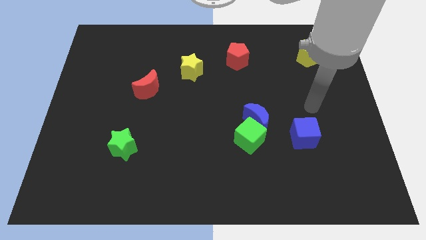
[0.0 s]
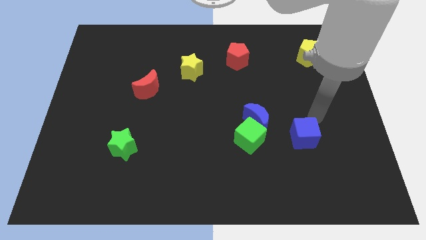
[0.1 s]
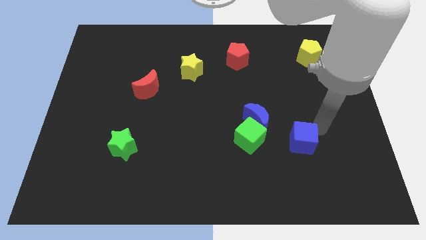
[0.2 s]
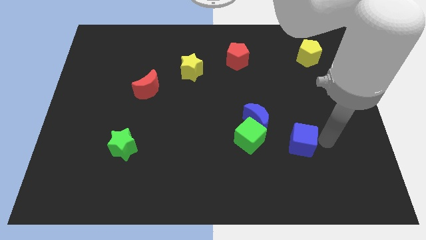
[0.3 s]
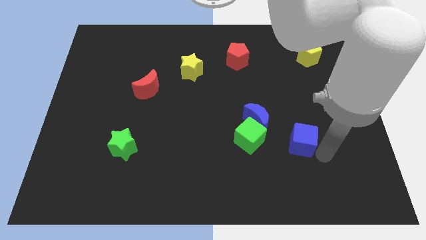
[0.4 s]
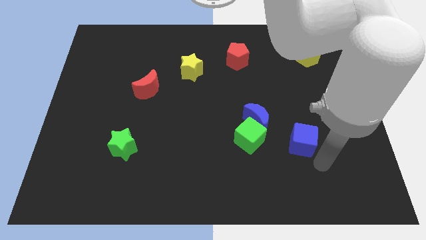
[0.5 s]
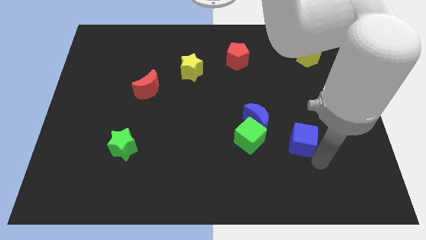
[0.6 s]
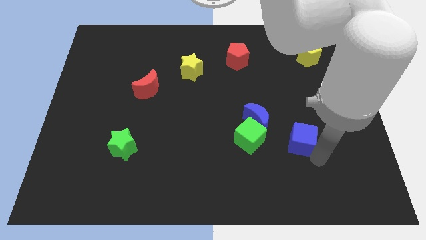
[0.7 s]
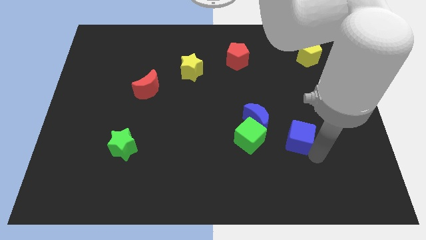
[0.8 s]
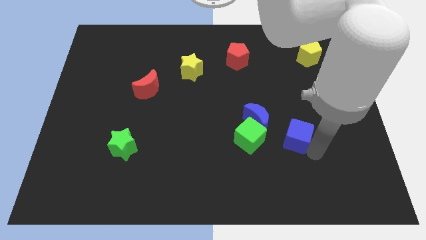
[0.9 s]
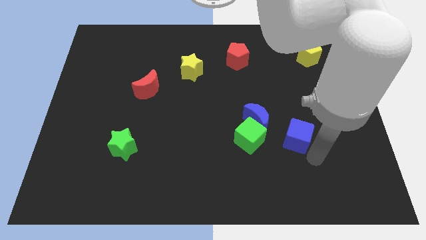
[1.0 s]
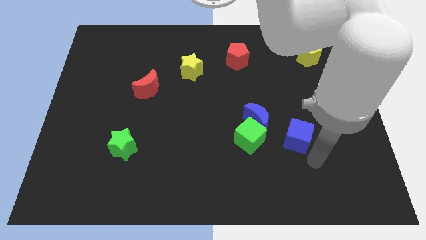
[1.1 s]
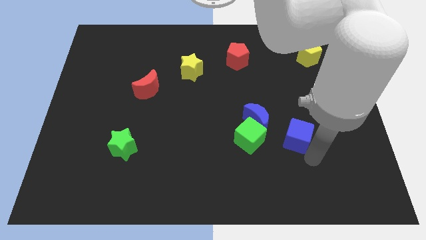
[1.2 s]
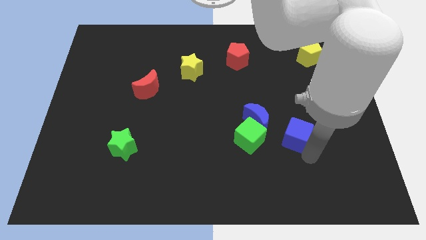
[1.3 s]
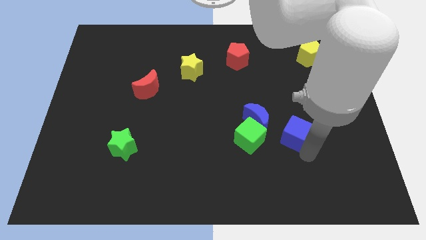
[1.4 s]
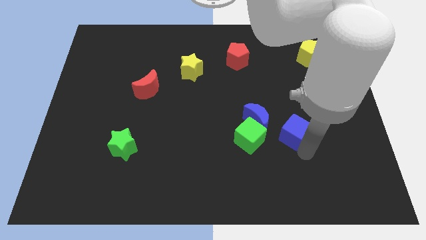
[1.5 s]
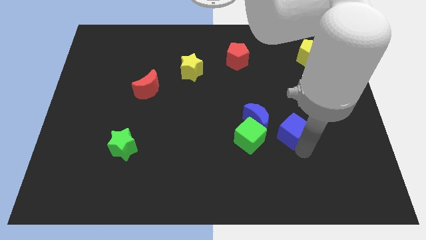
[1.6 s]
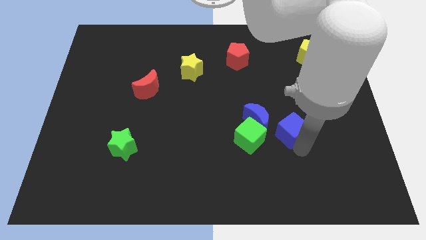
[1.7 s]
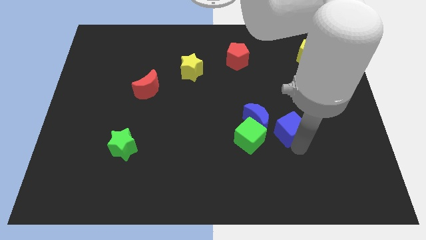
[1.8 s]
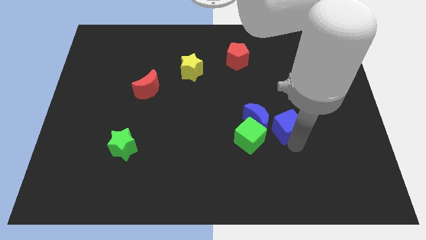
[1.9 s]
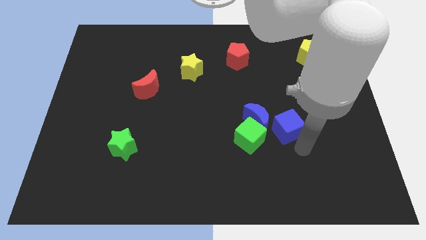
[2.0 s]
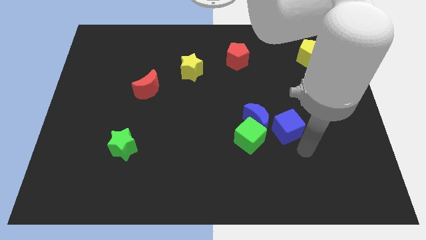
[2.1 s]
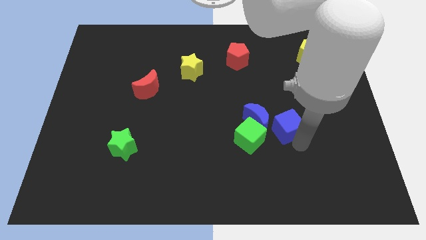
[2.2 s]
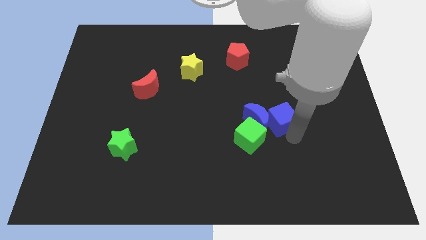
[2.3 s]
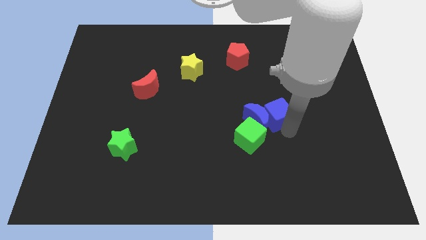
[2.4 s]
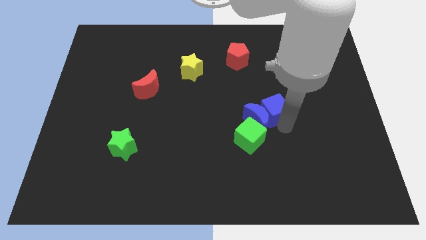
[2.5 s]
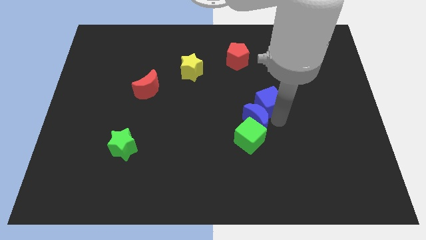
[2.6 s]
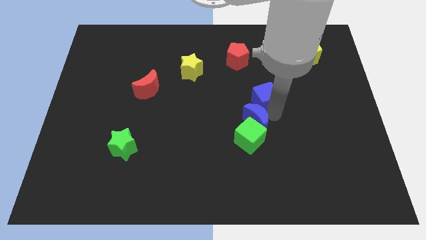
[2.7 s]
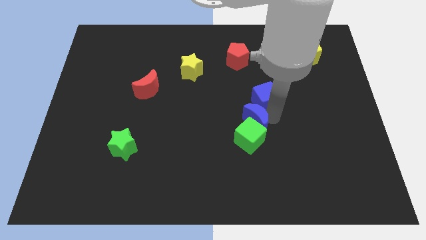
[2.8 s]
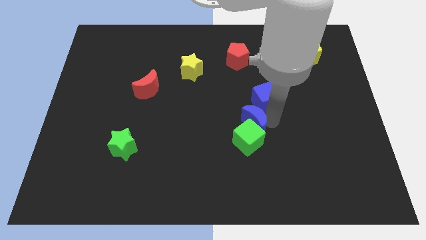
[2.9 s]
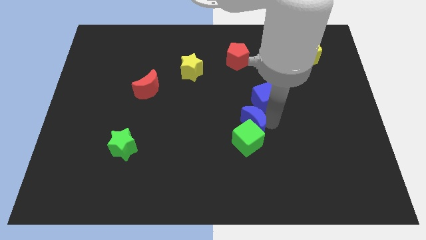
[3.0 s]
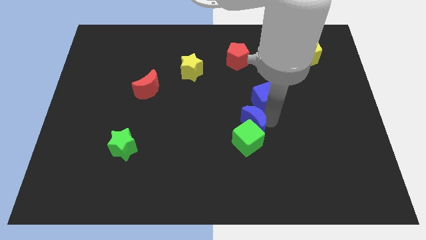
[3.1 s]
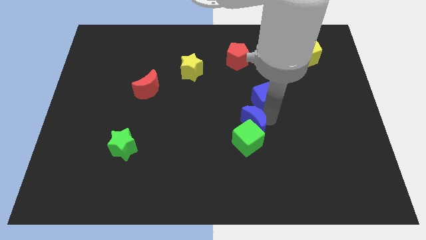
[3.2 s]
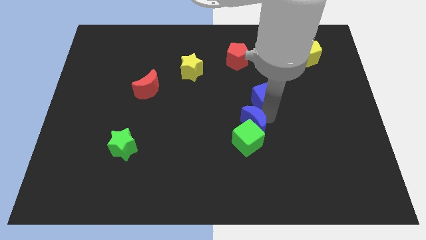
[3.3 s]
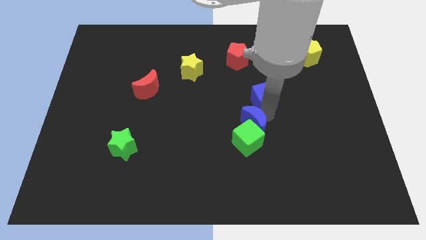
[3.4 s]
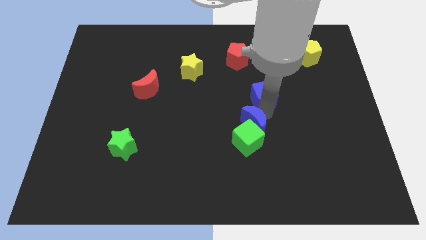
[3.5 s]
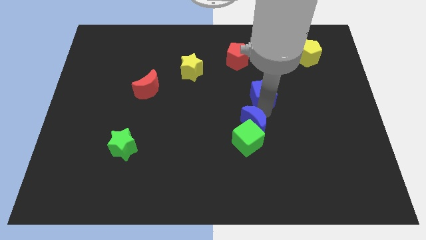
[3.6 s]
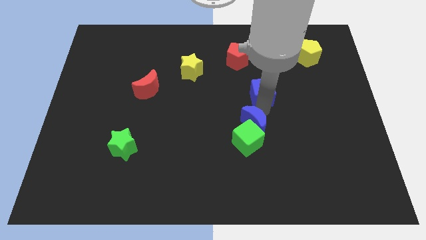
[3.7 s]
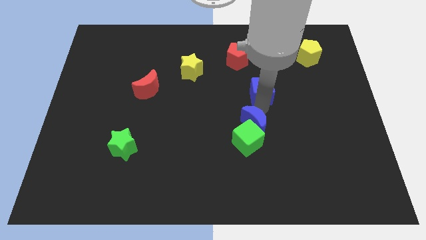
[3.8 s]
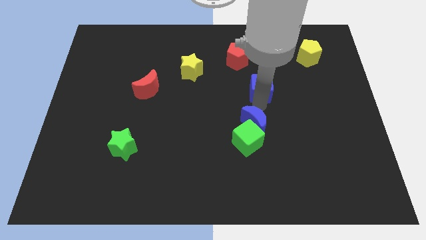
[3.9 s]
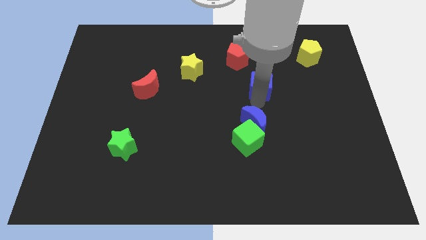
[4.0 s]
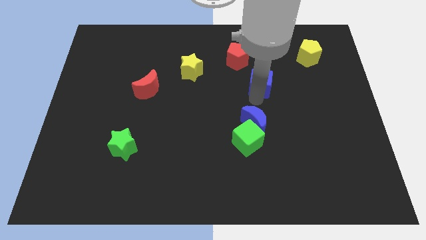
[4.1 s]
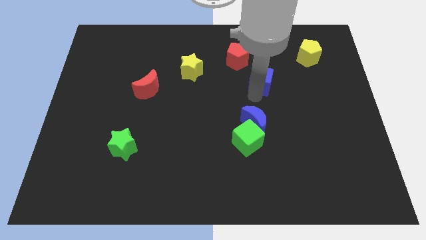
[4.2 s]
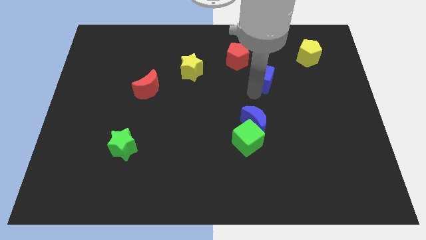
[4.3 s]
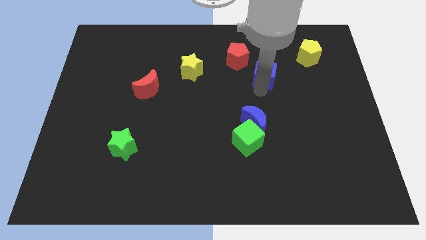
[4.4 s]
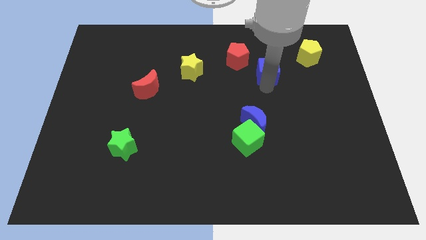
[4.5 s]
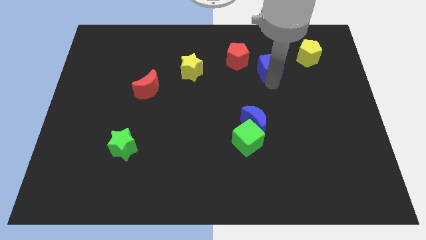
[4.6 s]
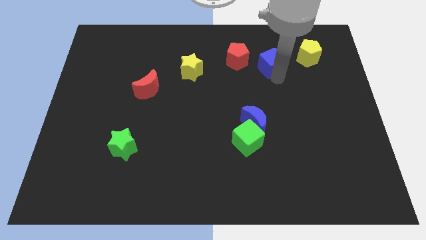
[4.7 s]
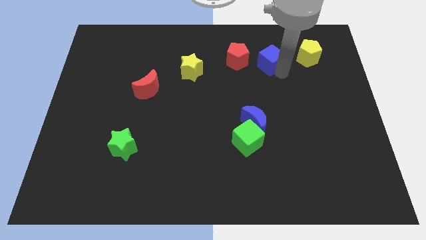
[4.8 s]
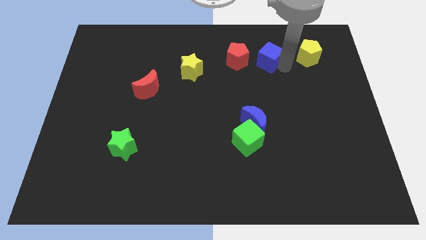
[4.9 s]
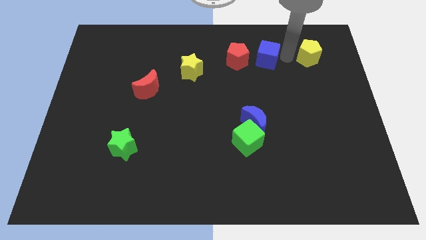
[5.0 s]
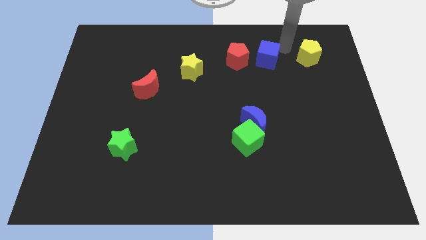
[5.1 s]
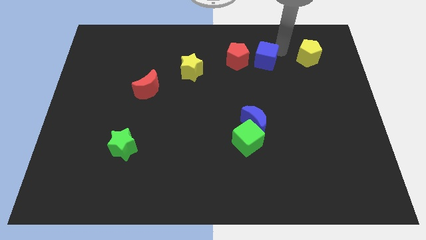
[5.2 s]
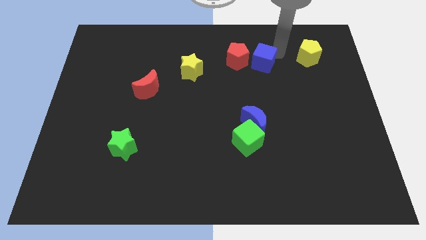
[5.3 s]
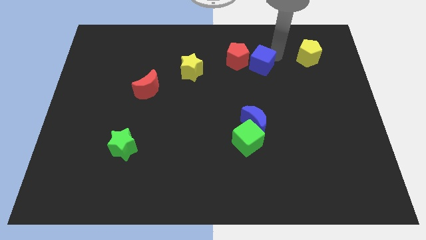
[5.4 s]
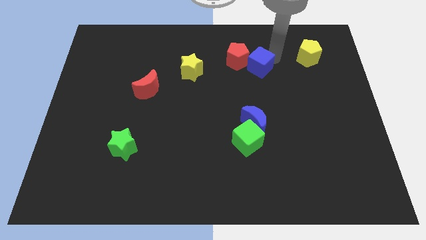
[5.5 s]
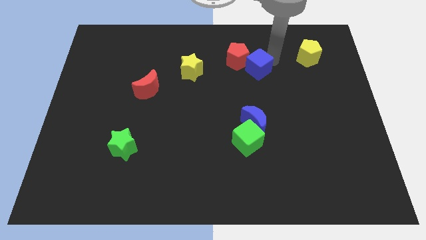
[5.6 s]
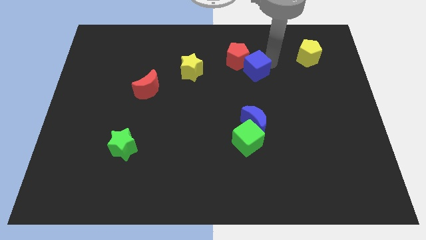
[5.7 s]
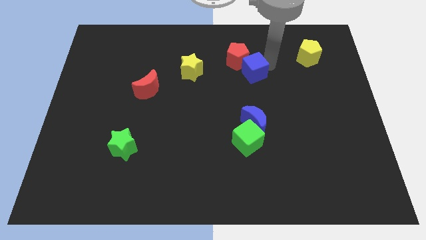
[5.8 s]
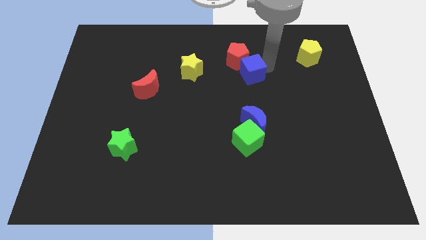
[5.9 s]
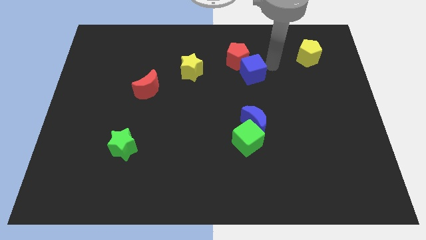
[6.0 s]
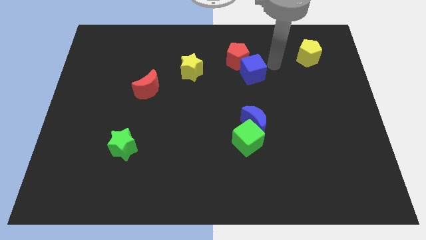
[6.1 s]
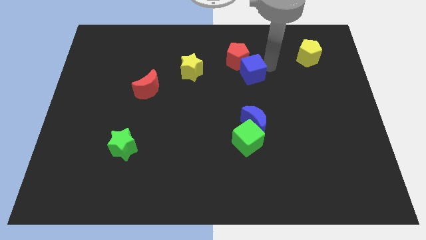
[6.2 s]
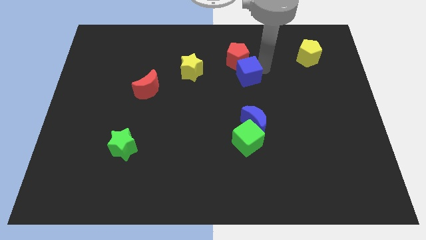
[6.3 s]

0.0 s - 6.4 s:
push the blue cube diagonally up and to the left

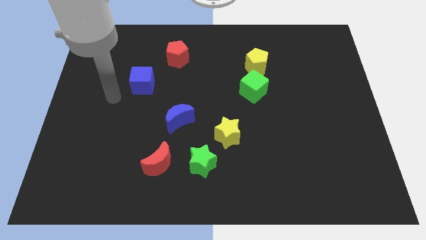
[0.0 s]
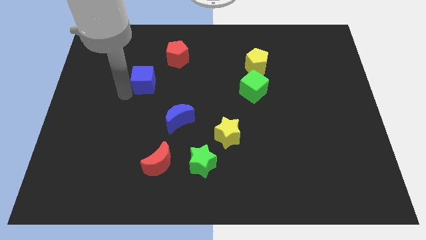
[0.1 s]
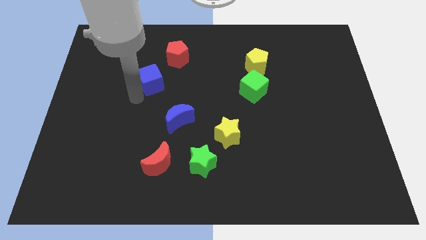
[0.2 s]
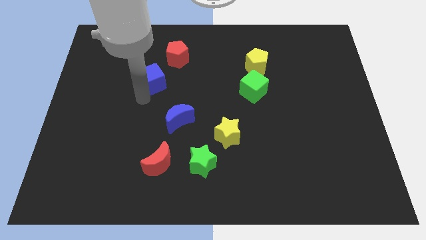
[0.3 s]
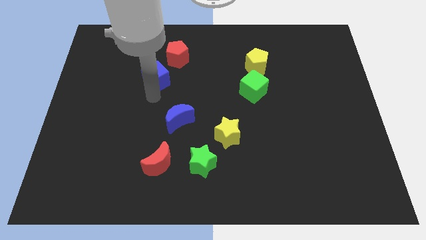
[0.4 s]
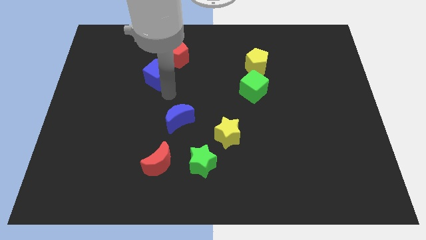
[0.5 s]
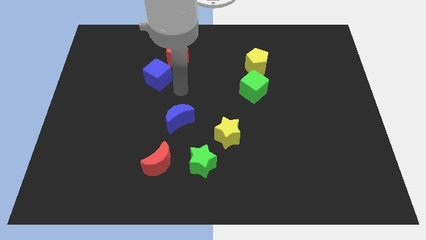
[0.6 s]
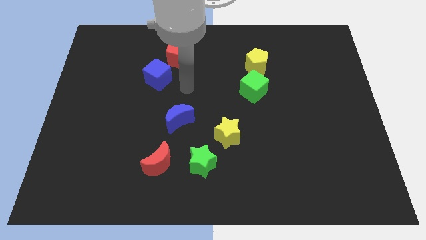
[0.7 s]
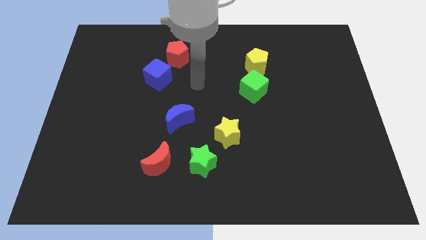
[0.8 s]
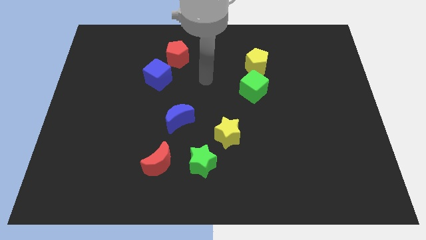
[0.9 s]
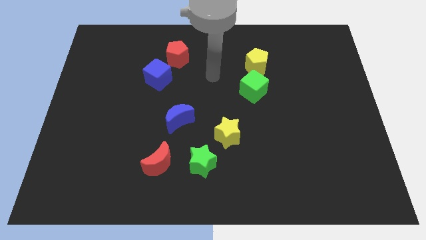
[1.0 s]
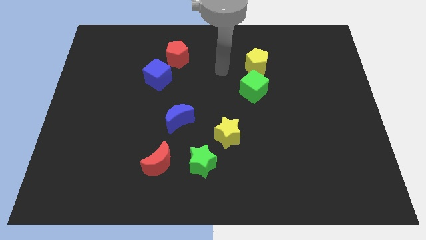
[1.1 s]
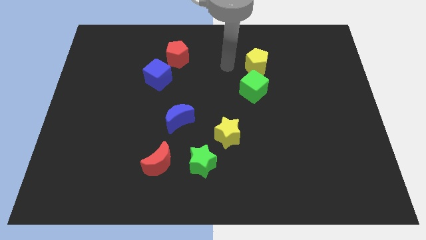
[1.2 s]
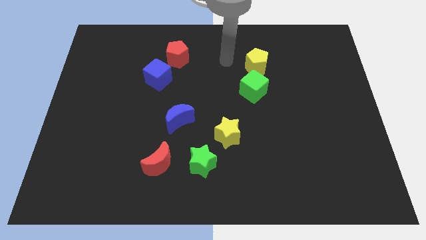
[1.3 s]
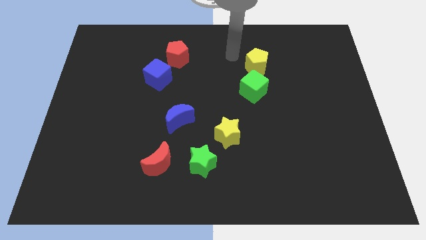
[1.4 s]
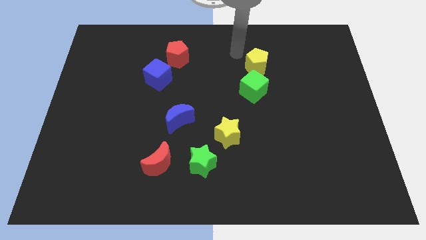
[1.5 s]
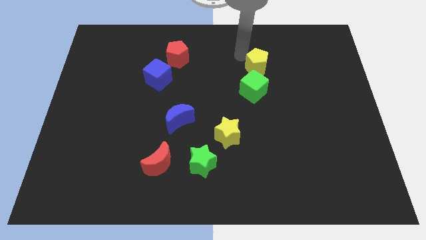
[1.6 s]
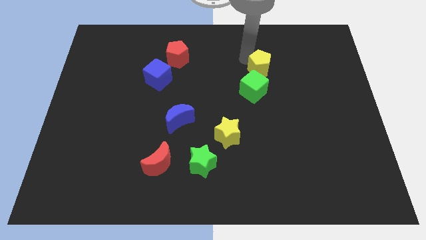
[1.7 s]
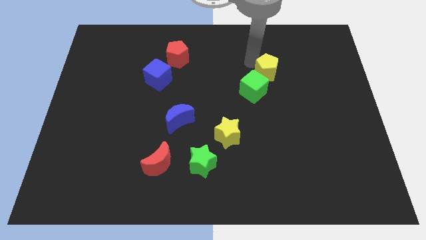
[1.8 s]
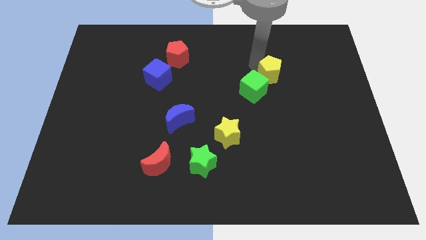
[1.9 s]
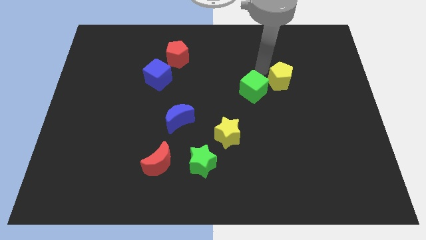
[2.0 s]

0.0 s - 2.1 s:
push the yellow pentagon a little diagonally down and right

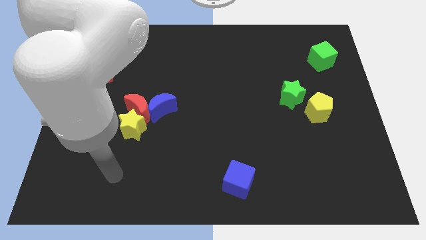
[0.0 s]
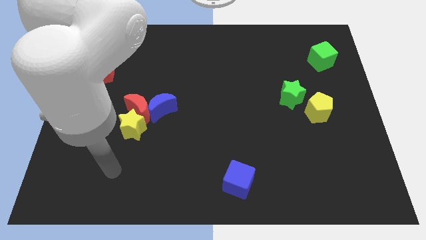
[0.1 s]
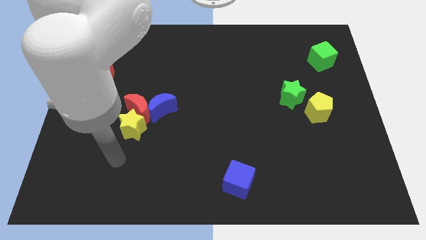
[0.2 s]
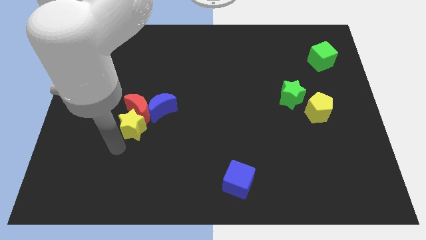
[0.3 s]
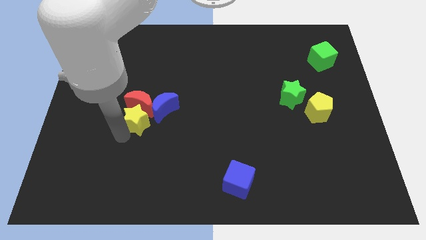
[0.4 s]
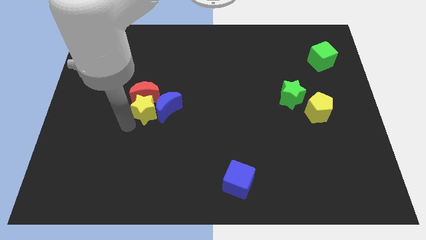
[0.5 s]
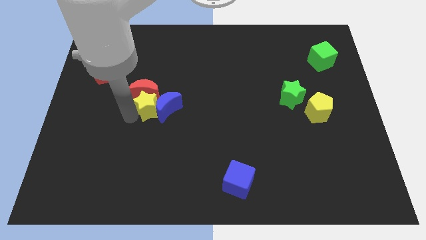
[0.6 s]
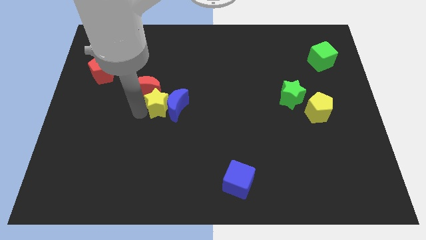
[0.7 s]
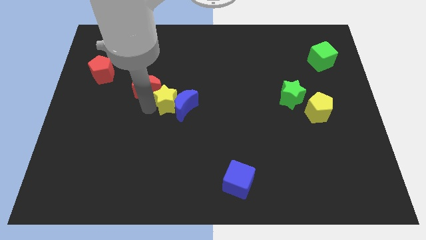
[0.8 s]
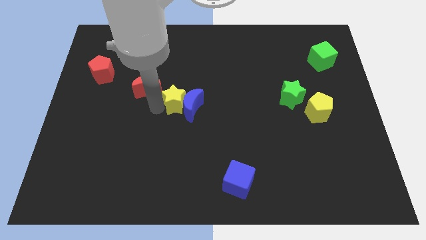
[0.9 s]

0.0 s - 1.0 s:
slightly slide the blue moon right
